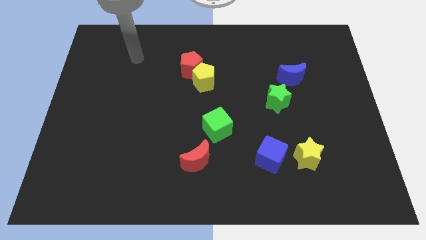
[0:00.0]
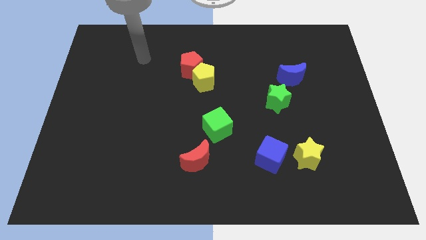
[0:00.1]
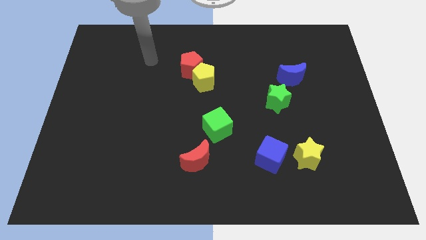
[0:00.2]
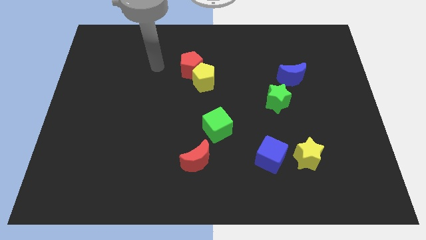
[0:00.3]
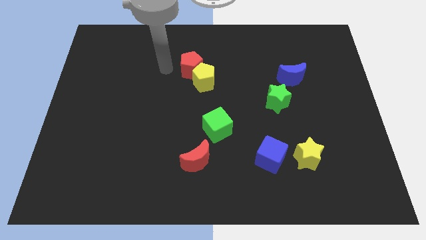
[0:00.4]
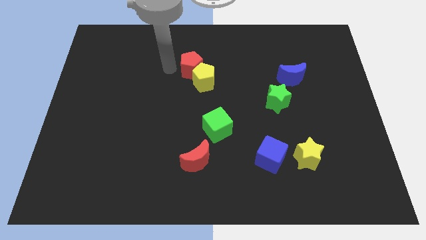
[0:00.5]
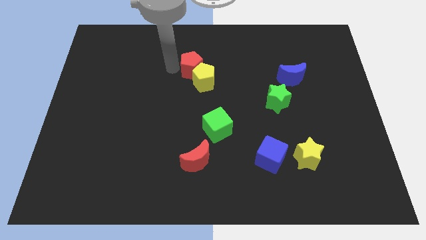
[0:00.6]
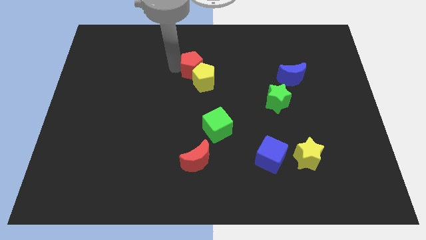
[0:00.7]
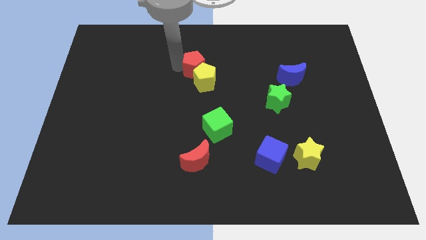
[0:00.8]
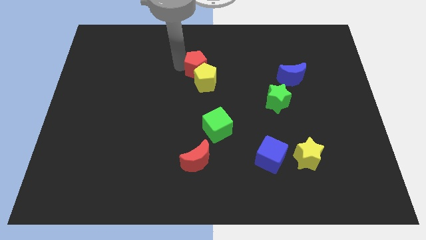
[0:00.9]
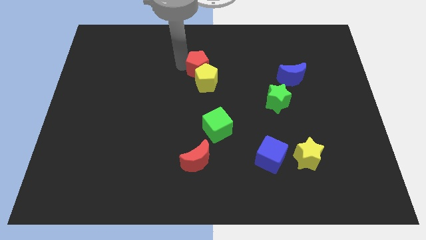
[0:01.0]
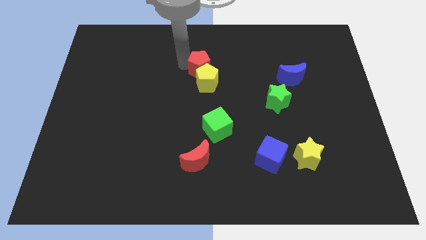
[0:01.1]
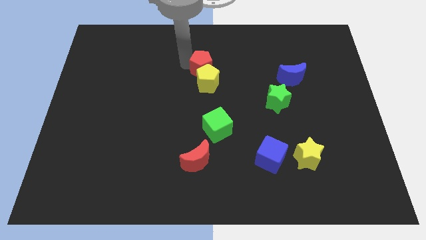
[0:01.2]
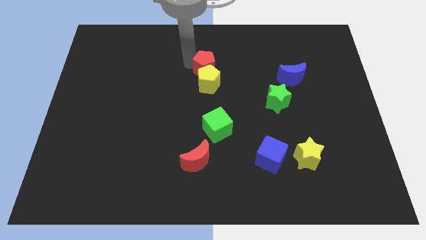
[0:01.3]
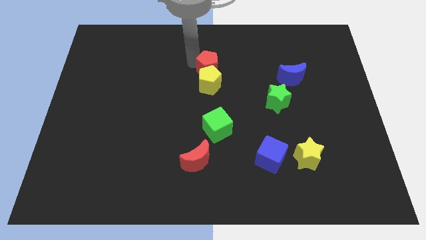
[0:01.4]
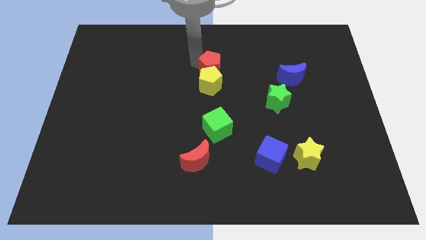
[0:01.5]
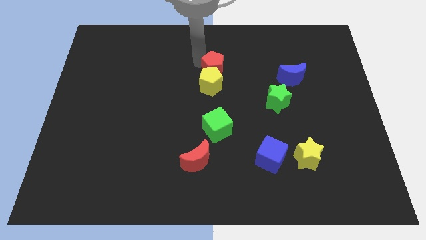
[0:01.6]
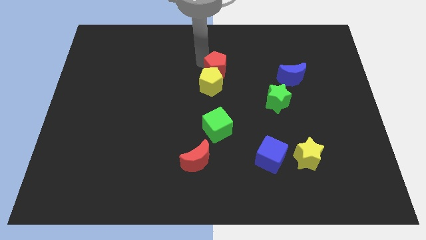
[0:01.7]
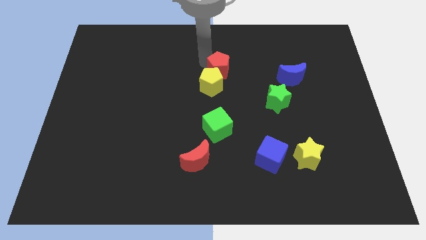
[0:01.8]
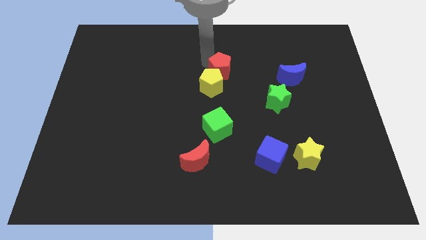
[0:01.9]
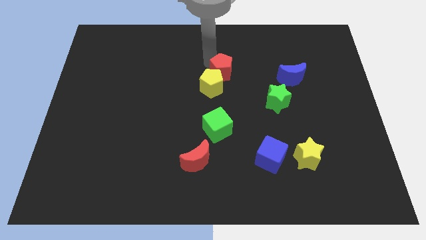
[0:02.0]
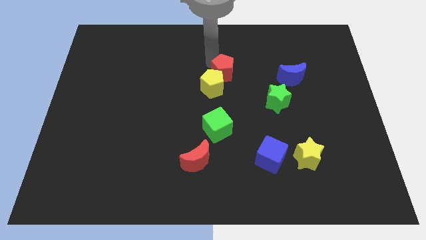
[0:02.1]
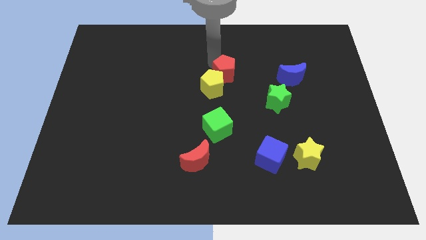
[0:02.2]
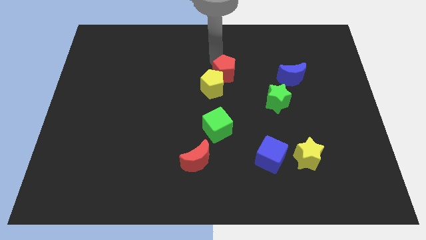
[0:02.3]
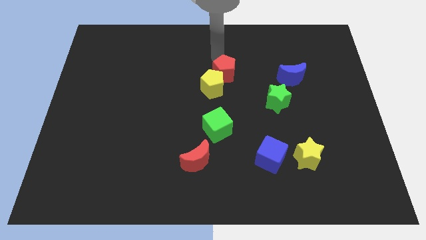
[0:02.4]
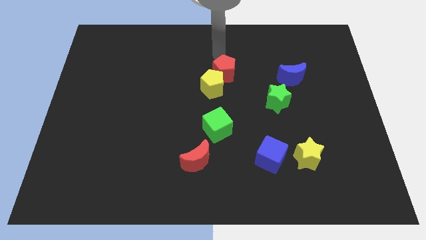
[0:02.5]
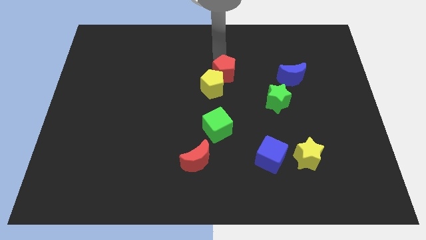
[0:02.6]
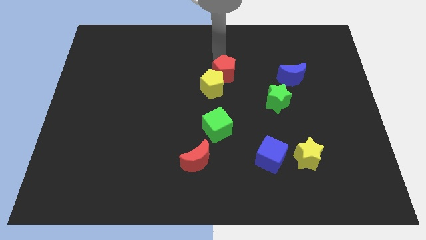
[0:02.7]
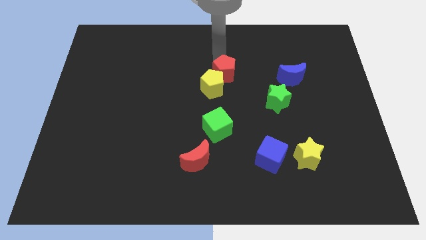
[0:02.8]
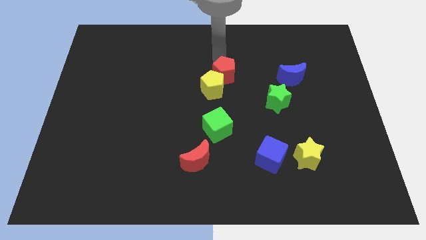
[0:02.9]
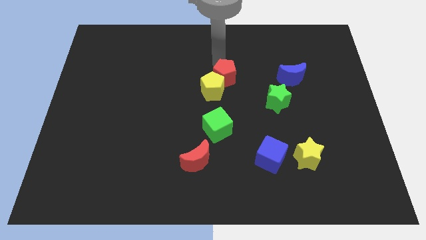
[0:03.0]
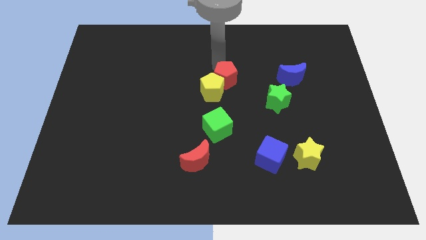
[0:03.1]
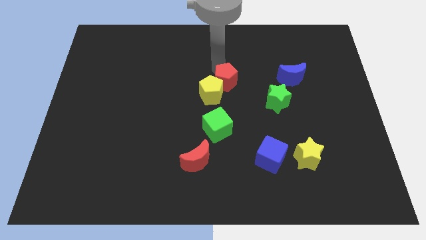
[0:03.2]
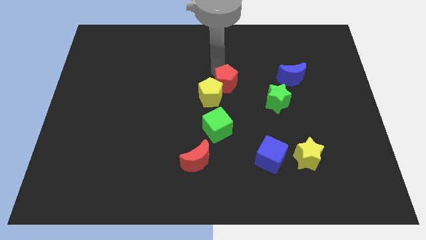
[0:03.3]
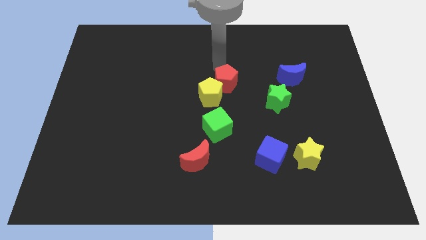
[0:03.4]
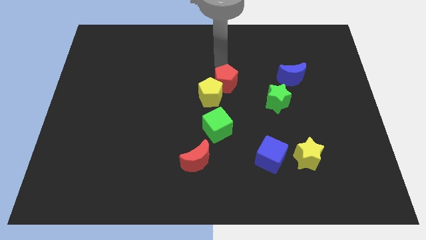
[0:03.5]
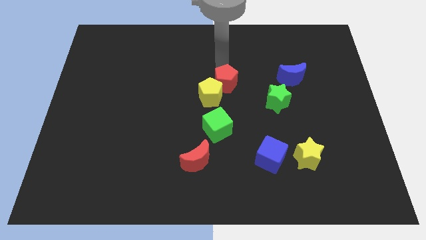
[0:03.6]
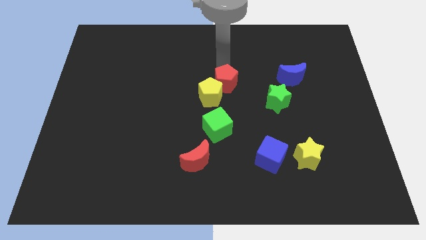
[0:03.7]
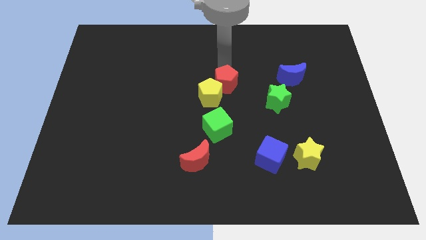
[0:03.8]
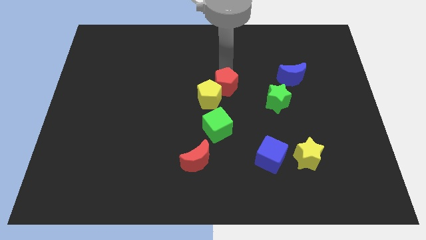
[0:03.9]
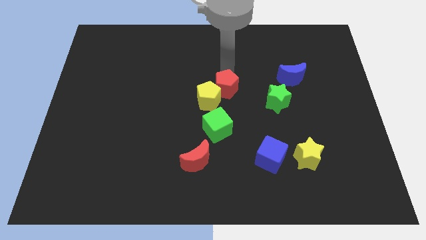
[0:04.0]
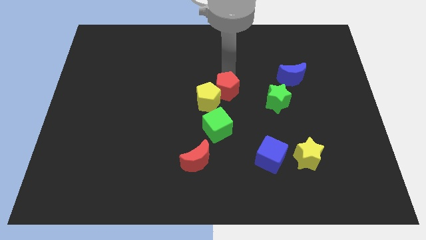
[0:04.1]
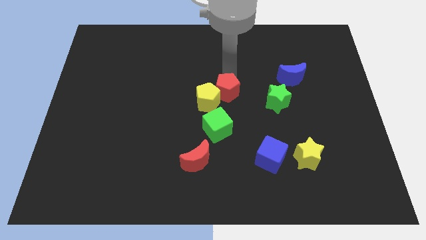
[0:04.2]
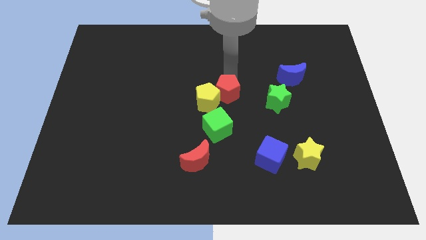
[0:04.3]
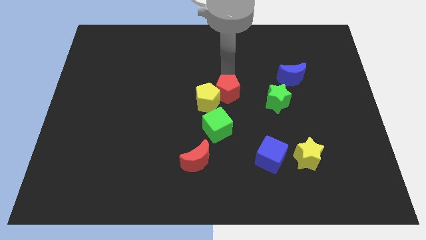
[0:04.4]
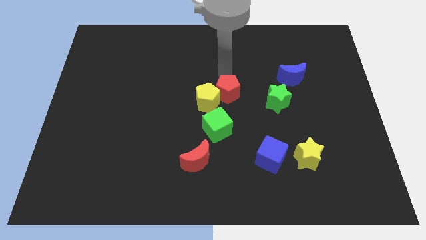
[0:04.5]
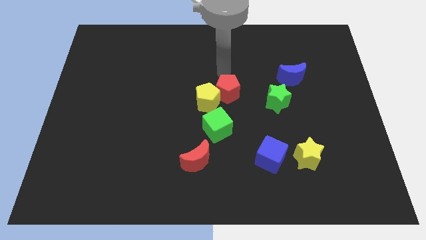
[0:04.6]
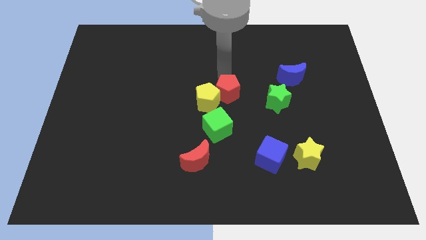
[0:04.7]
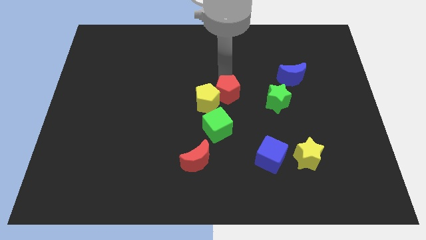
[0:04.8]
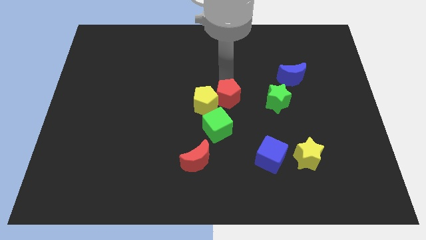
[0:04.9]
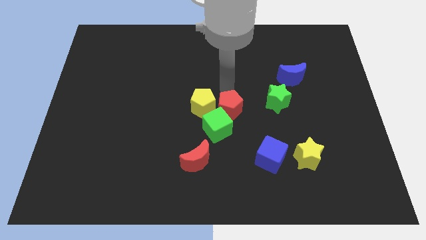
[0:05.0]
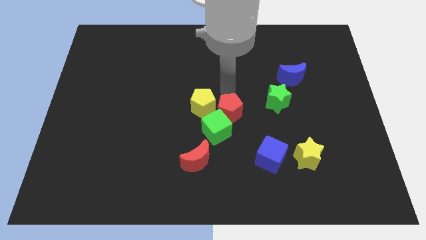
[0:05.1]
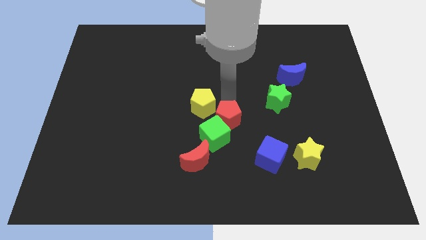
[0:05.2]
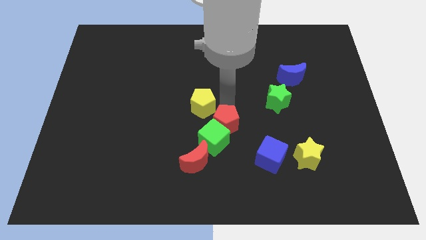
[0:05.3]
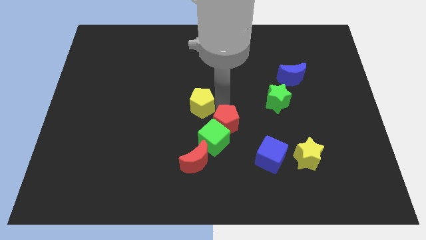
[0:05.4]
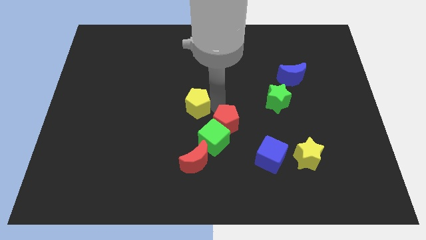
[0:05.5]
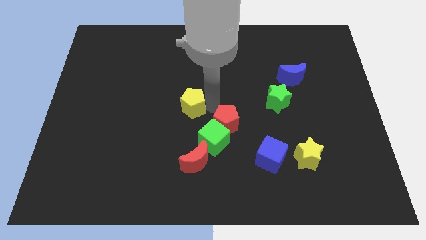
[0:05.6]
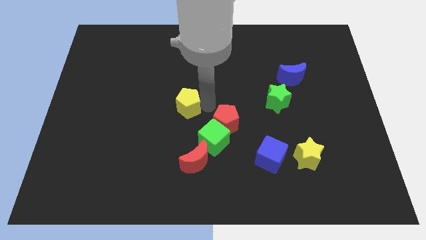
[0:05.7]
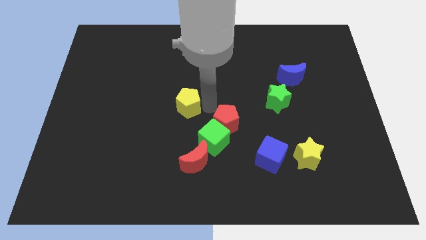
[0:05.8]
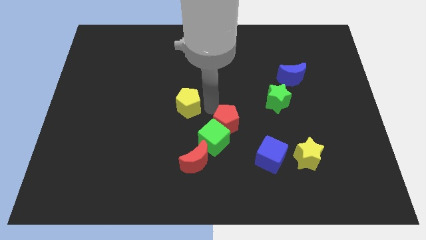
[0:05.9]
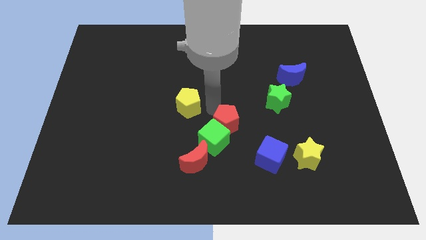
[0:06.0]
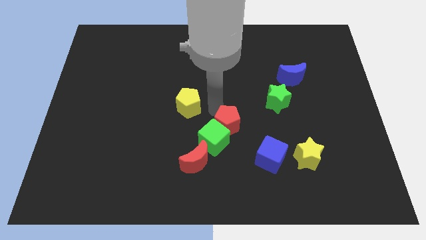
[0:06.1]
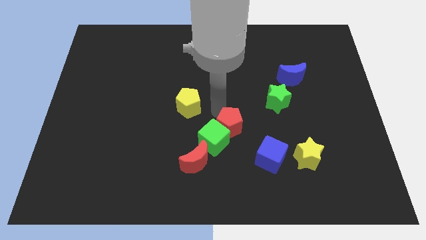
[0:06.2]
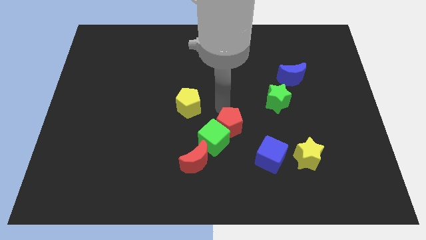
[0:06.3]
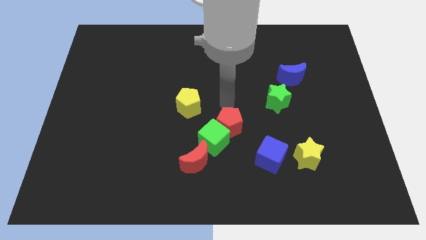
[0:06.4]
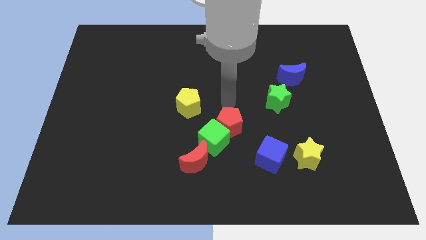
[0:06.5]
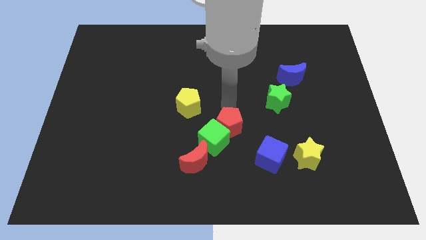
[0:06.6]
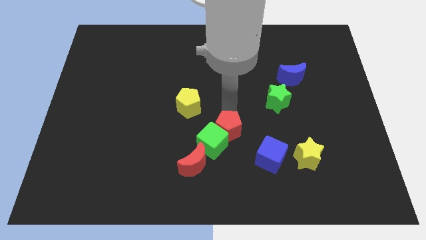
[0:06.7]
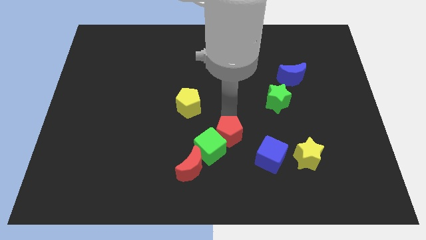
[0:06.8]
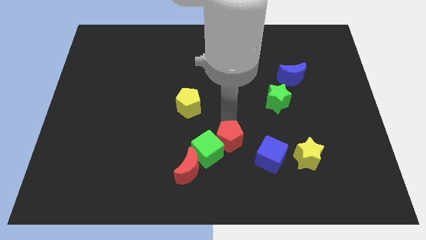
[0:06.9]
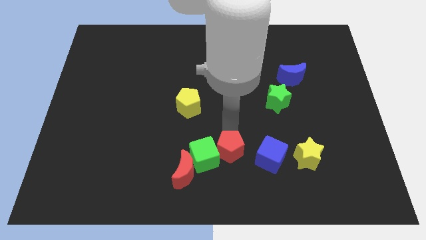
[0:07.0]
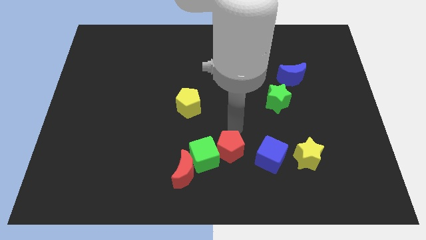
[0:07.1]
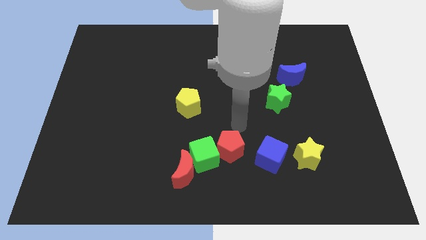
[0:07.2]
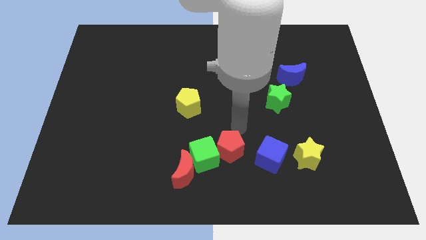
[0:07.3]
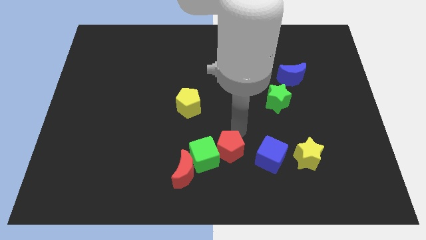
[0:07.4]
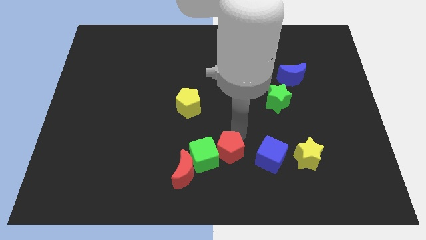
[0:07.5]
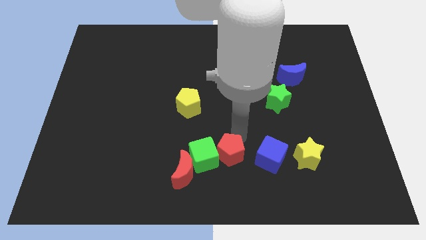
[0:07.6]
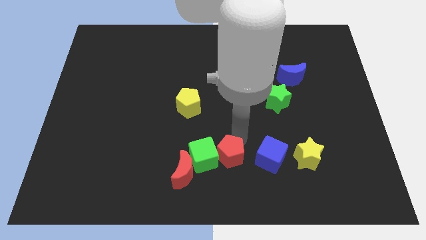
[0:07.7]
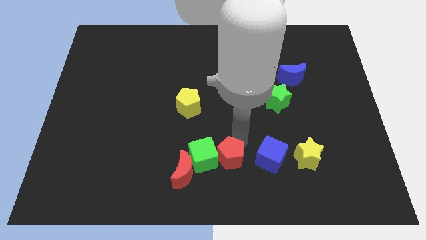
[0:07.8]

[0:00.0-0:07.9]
move the red pentagon to the bottom

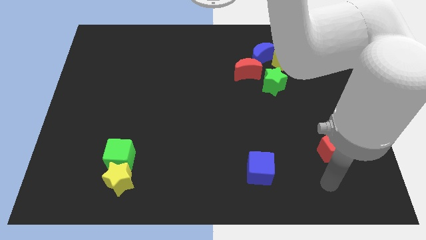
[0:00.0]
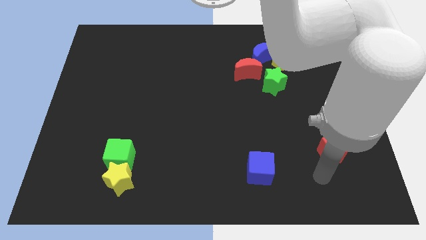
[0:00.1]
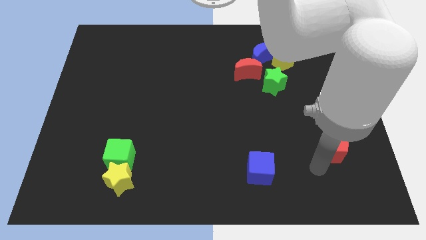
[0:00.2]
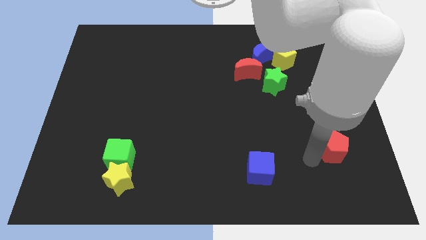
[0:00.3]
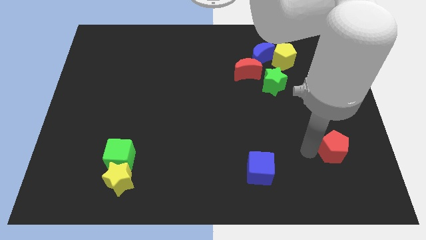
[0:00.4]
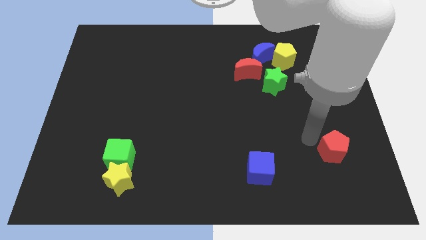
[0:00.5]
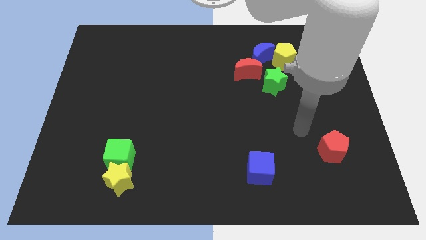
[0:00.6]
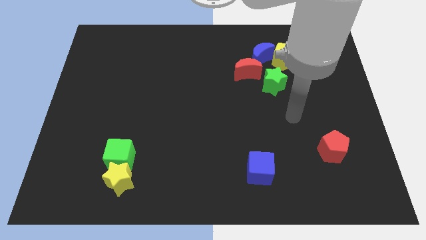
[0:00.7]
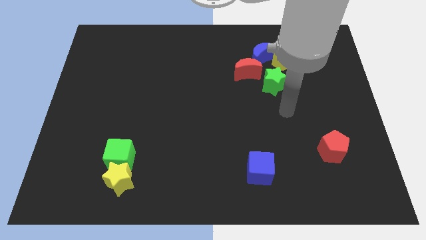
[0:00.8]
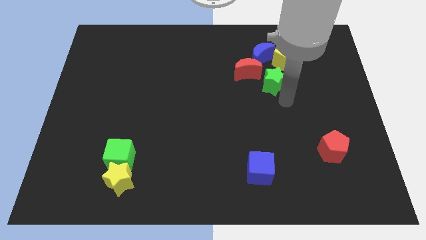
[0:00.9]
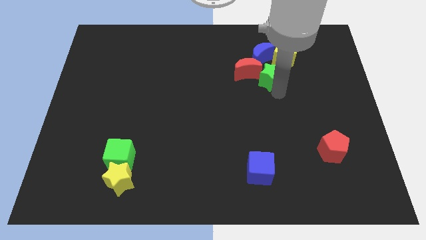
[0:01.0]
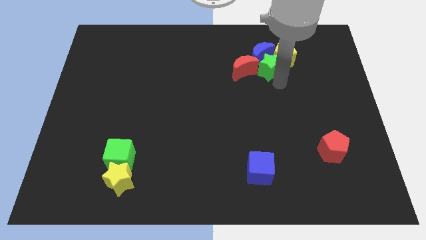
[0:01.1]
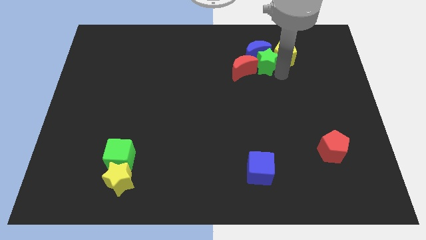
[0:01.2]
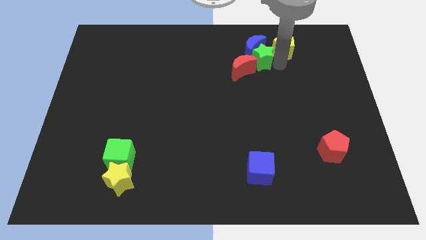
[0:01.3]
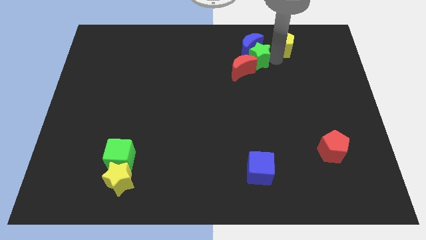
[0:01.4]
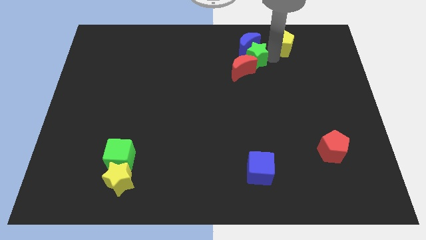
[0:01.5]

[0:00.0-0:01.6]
push the blue moon to the top
